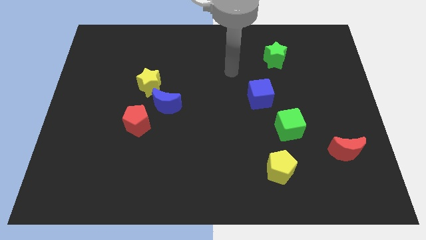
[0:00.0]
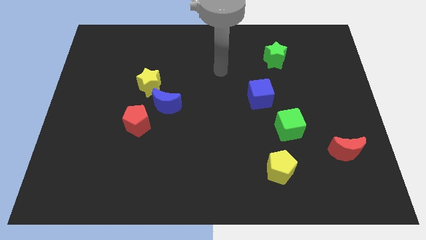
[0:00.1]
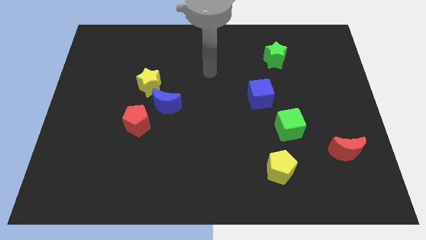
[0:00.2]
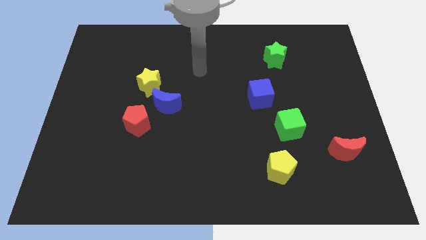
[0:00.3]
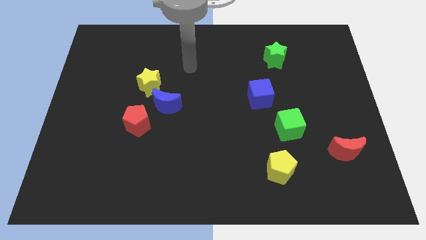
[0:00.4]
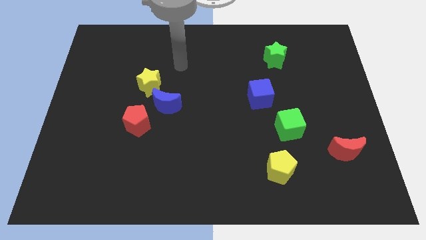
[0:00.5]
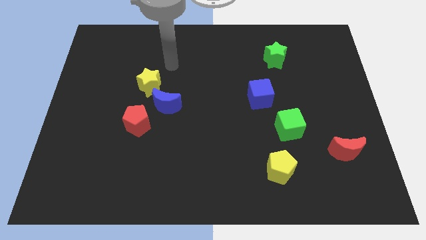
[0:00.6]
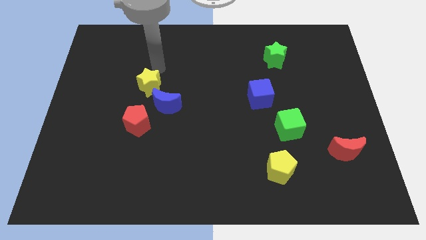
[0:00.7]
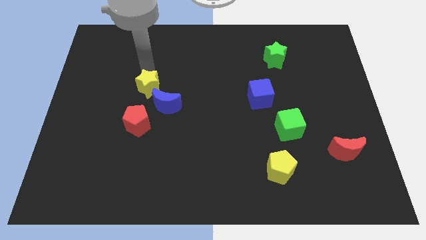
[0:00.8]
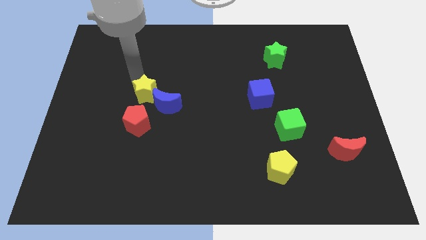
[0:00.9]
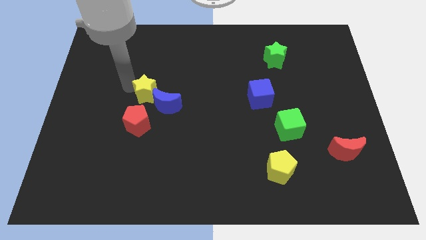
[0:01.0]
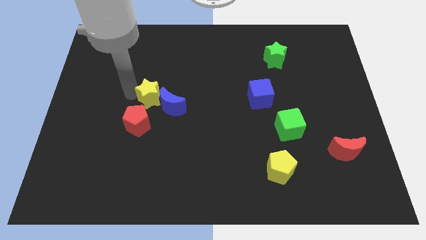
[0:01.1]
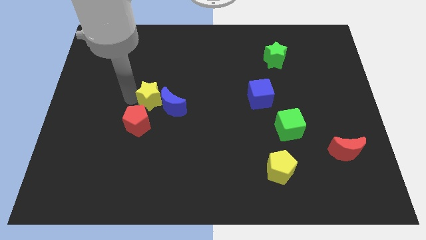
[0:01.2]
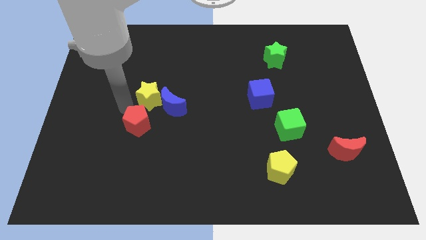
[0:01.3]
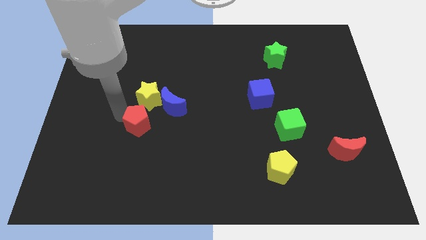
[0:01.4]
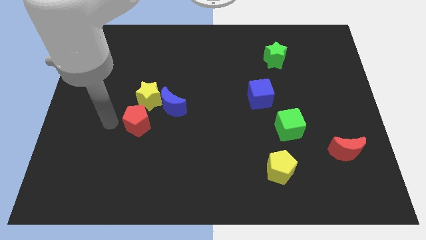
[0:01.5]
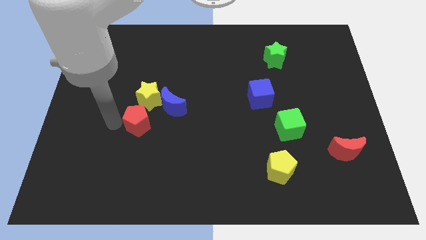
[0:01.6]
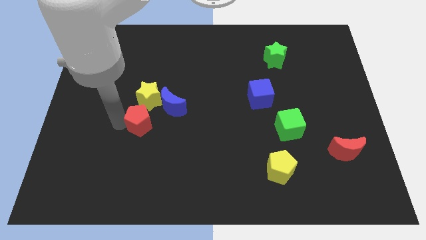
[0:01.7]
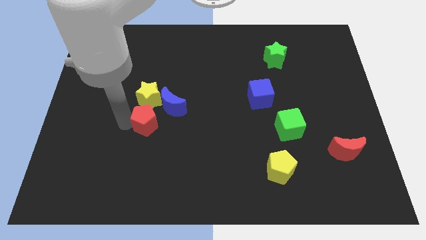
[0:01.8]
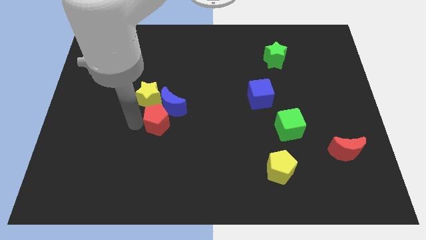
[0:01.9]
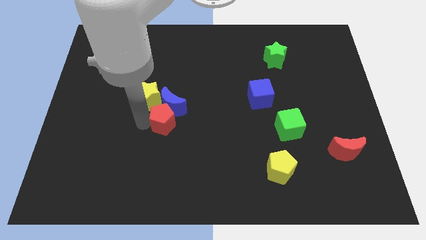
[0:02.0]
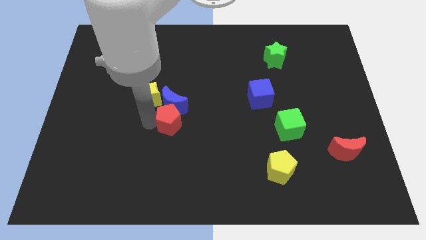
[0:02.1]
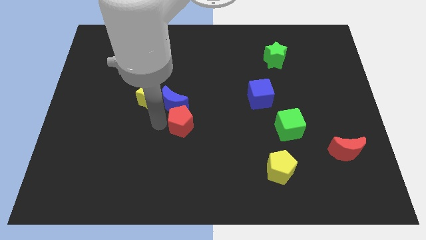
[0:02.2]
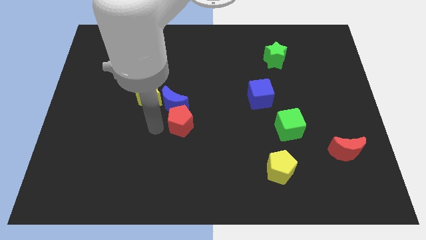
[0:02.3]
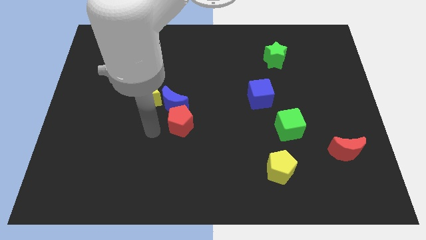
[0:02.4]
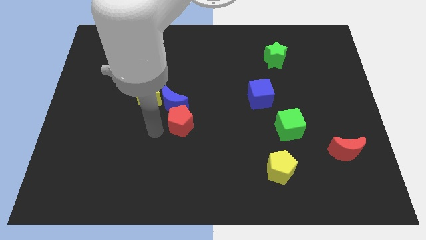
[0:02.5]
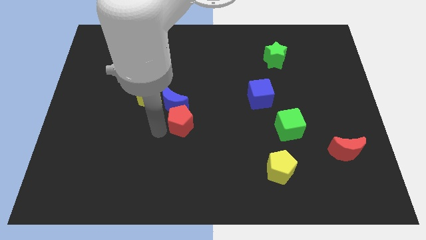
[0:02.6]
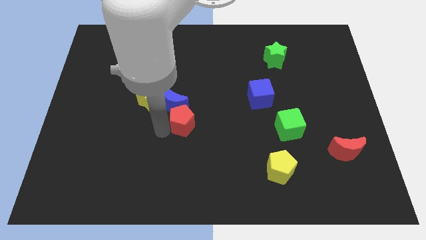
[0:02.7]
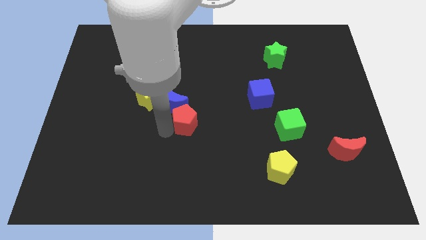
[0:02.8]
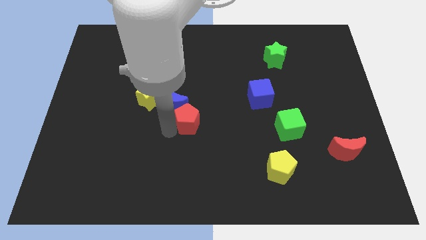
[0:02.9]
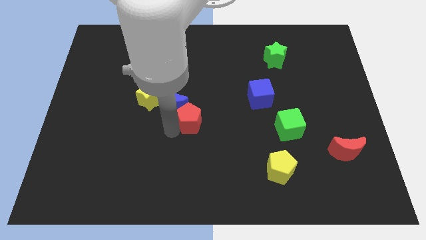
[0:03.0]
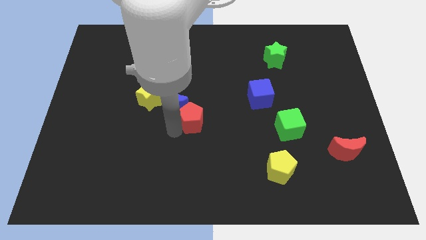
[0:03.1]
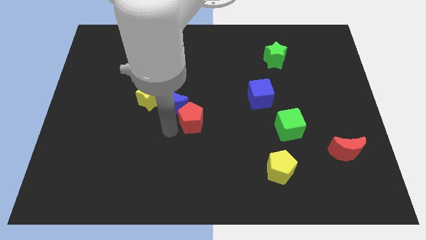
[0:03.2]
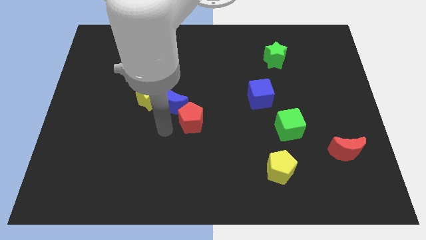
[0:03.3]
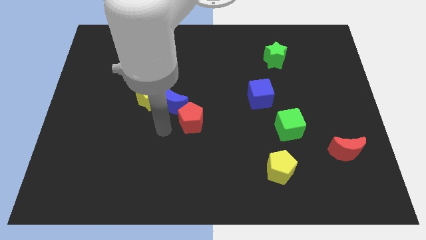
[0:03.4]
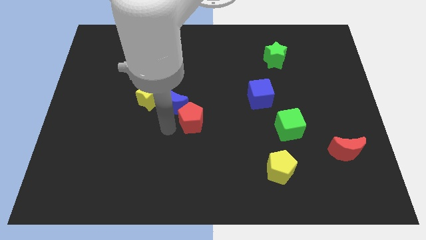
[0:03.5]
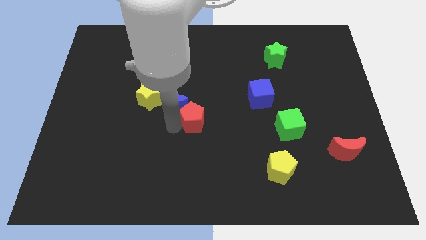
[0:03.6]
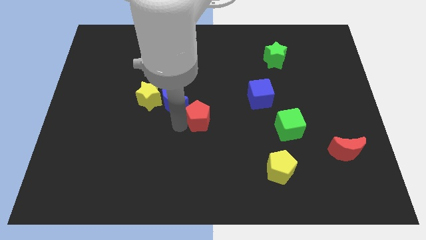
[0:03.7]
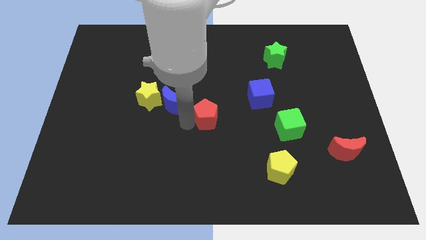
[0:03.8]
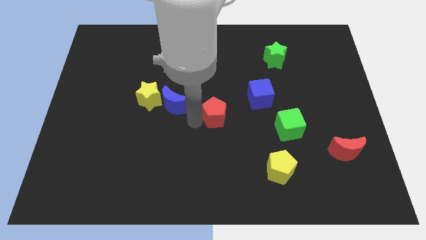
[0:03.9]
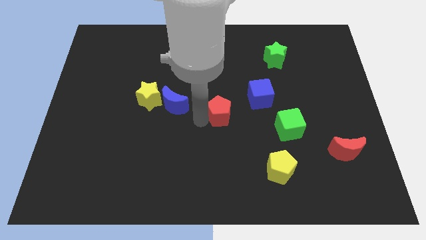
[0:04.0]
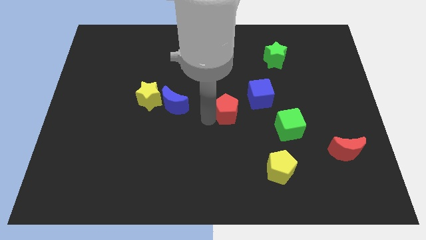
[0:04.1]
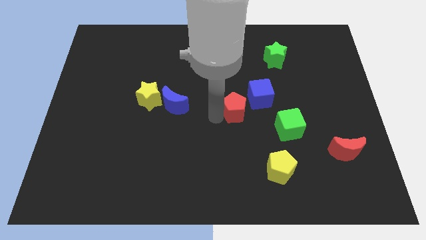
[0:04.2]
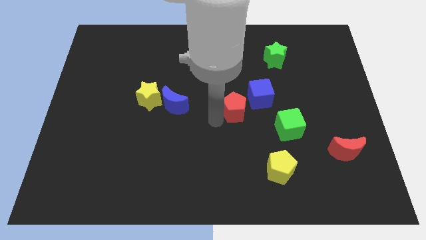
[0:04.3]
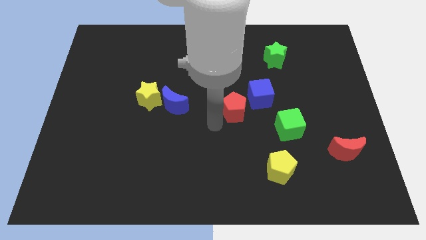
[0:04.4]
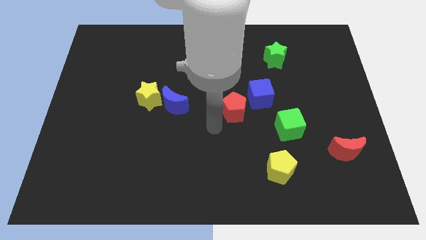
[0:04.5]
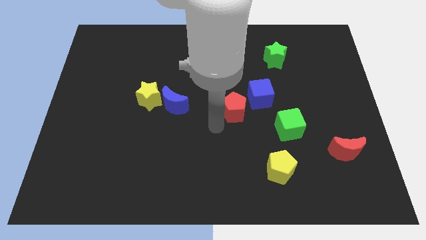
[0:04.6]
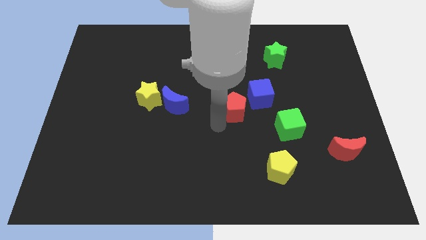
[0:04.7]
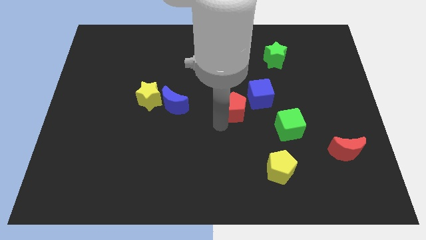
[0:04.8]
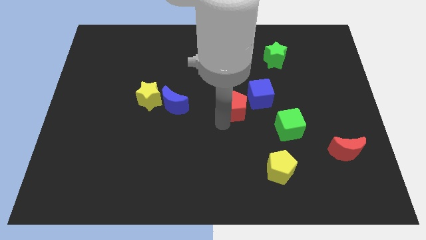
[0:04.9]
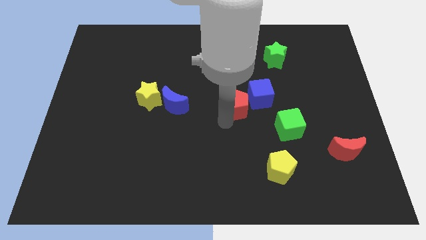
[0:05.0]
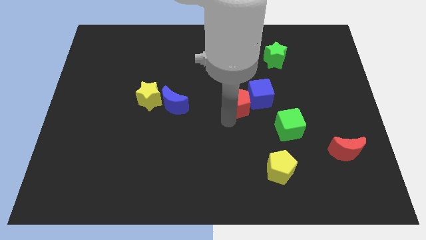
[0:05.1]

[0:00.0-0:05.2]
push the red pentagon to the blue cube

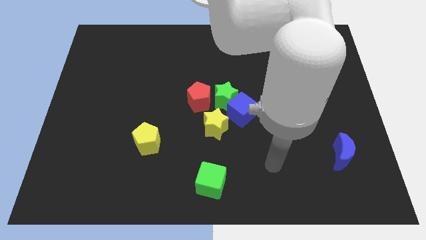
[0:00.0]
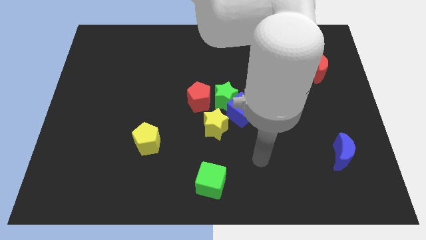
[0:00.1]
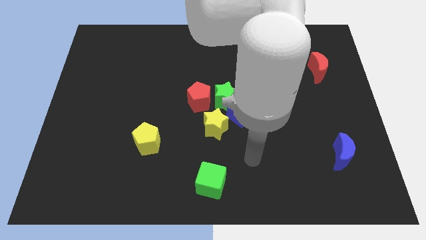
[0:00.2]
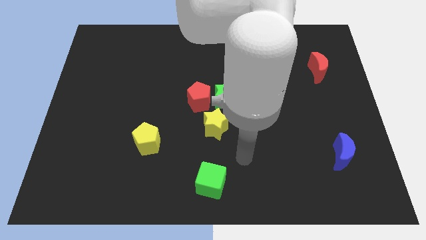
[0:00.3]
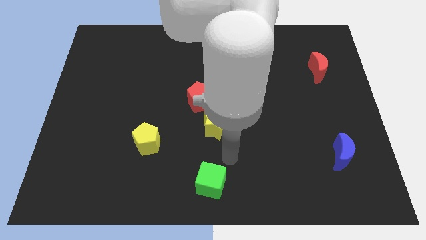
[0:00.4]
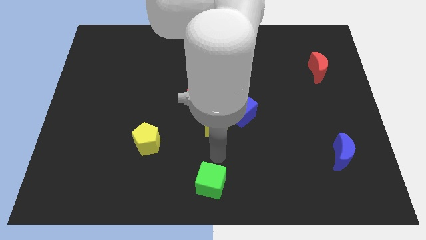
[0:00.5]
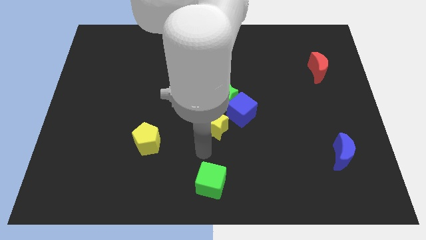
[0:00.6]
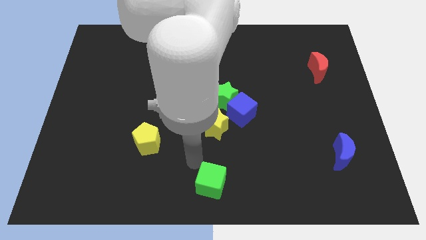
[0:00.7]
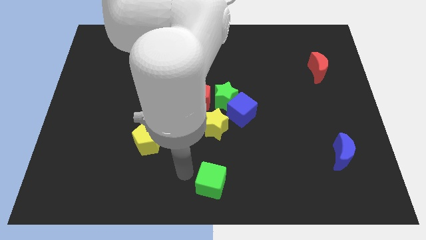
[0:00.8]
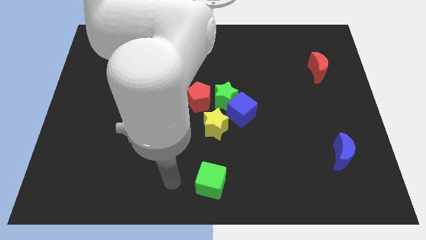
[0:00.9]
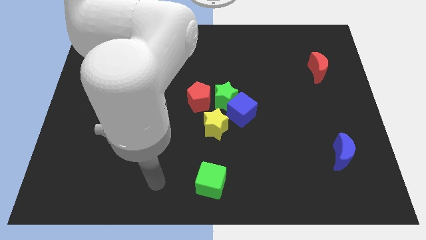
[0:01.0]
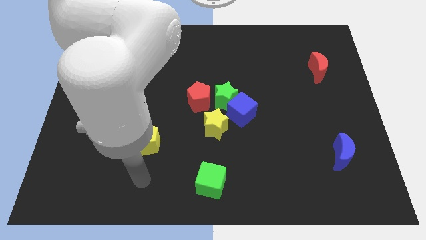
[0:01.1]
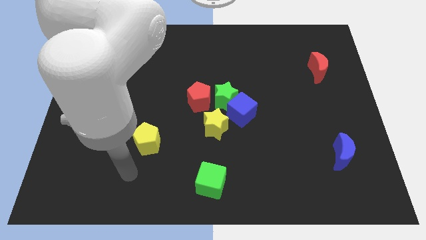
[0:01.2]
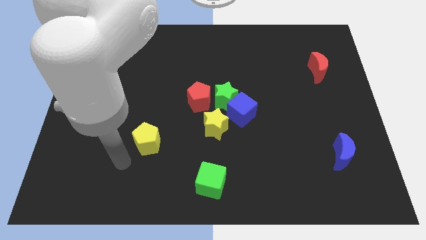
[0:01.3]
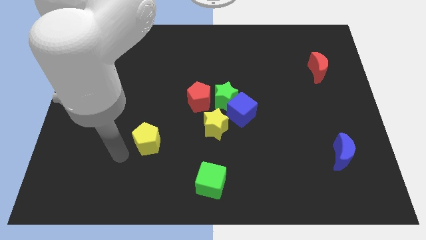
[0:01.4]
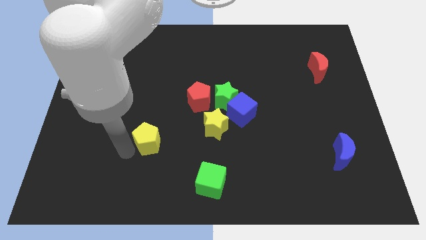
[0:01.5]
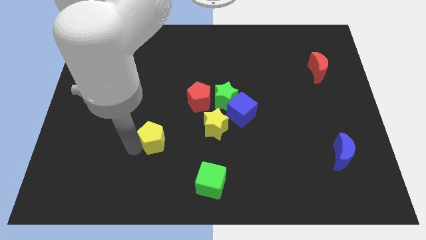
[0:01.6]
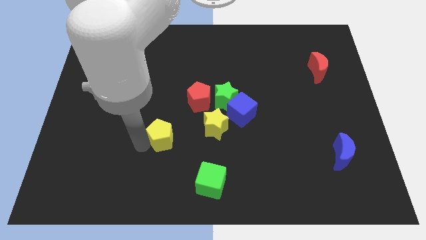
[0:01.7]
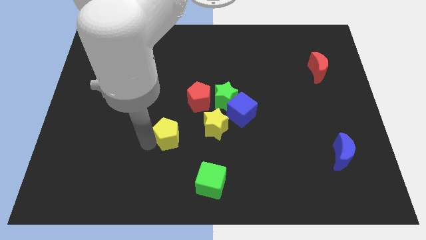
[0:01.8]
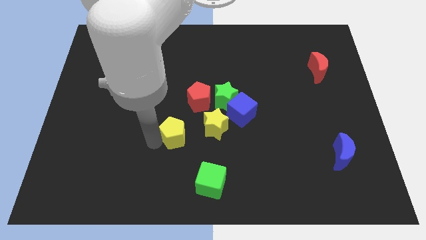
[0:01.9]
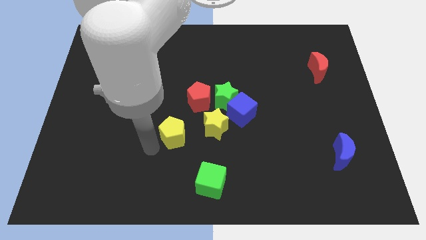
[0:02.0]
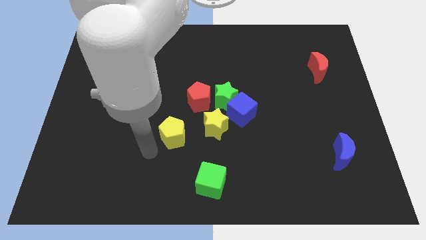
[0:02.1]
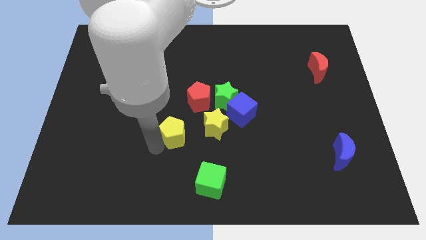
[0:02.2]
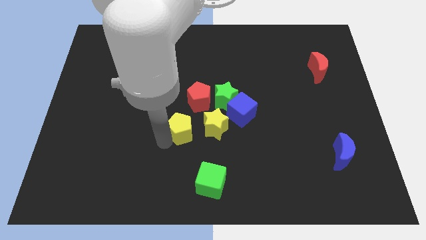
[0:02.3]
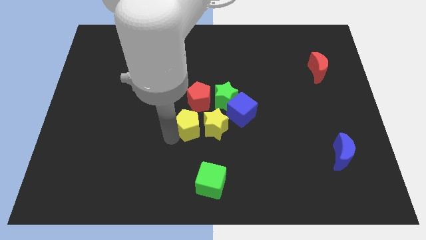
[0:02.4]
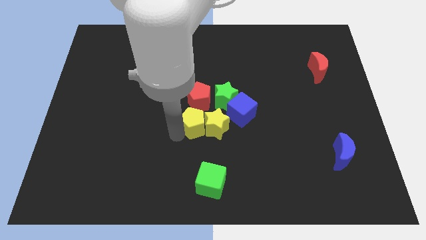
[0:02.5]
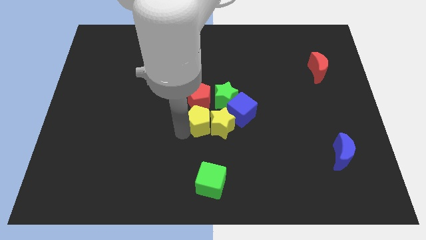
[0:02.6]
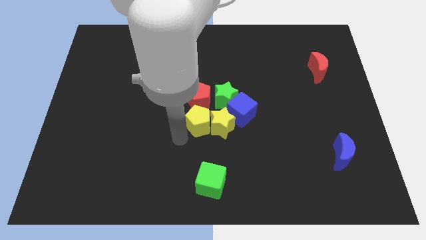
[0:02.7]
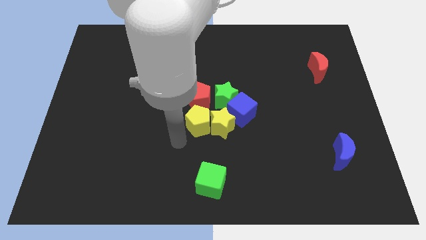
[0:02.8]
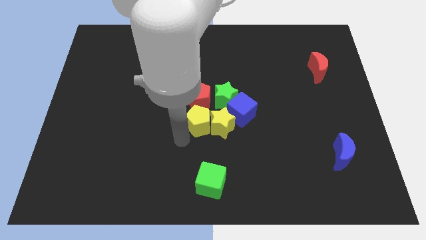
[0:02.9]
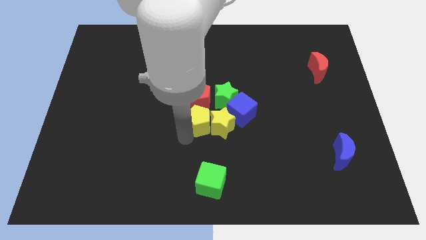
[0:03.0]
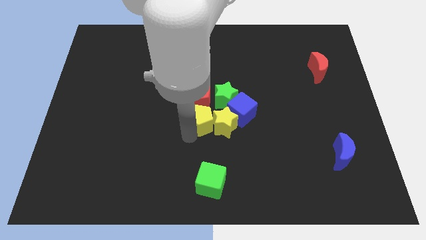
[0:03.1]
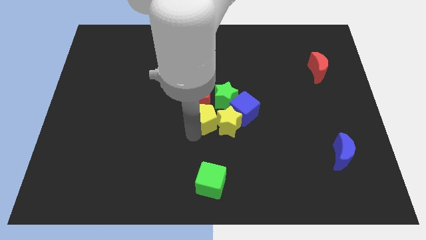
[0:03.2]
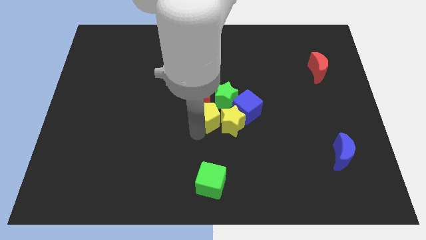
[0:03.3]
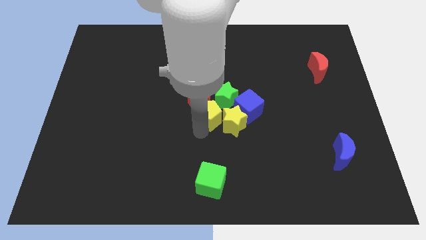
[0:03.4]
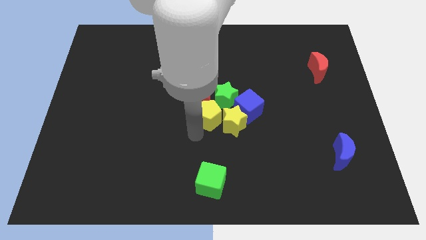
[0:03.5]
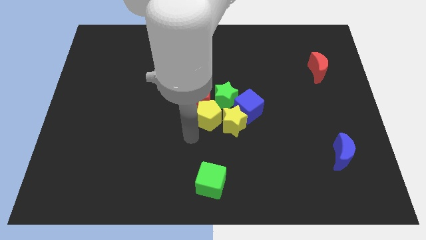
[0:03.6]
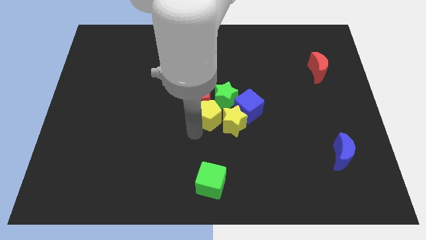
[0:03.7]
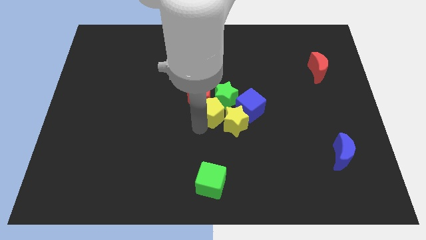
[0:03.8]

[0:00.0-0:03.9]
push the yellow pentagon close to the green star
